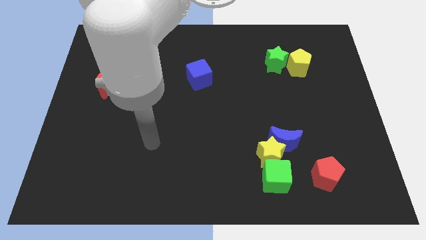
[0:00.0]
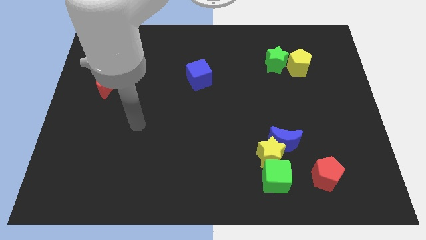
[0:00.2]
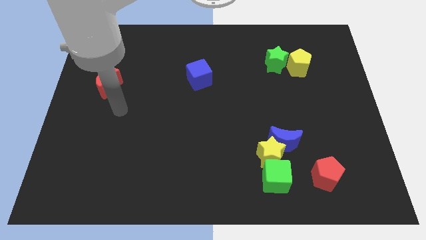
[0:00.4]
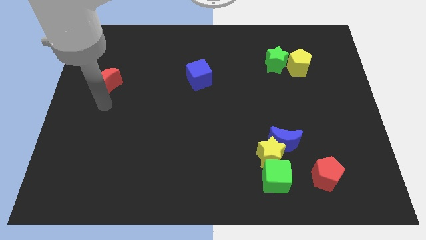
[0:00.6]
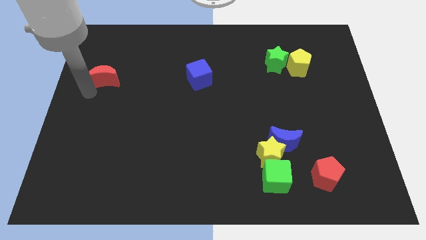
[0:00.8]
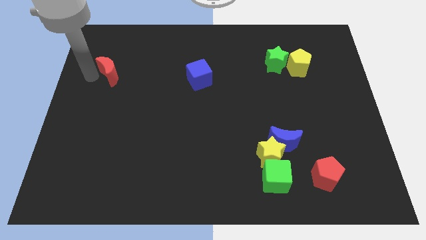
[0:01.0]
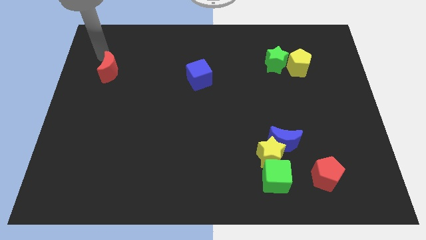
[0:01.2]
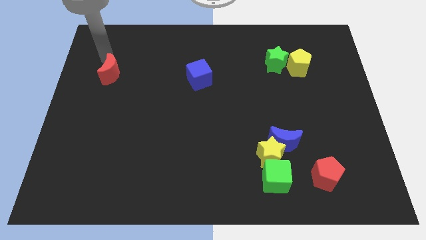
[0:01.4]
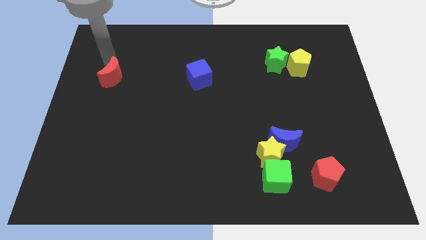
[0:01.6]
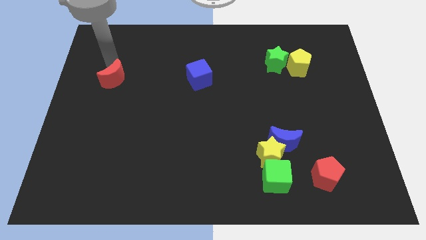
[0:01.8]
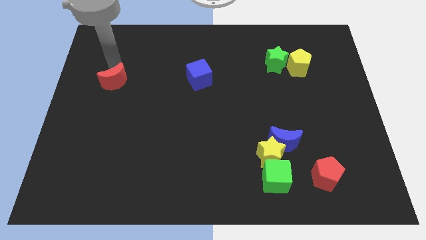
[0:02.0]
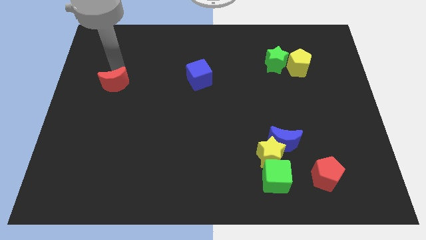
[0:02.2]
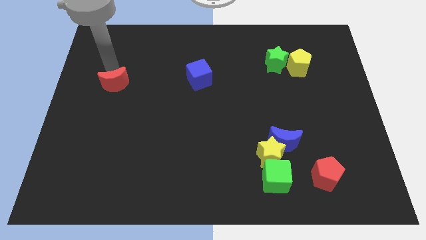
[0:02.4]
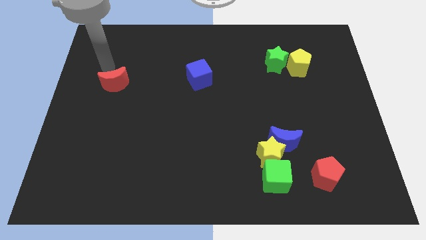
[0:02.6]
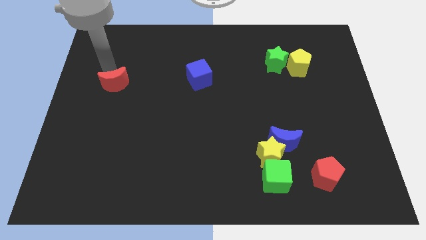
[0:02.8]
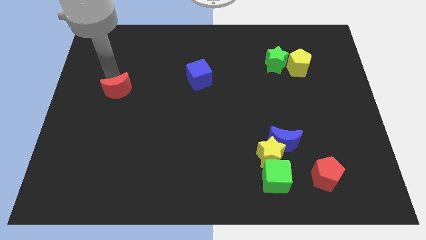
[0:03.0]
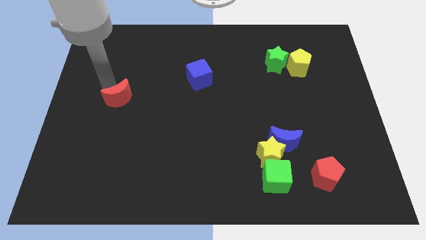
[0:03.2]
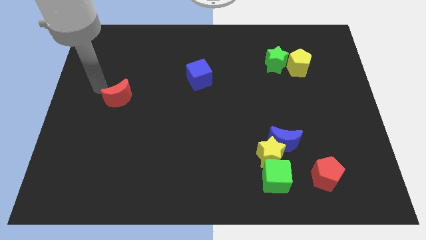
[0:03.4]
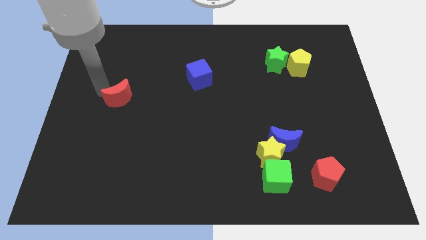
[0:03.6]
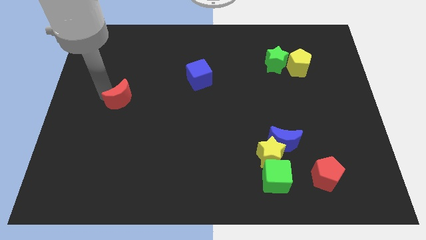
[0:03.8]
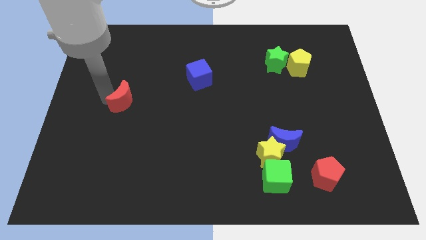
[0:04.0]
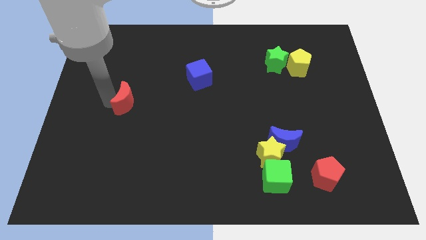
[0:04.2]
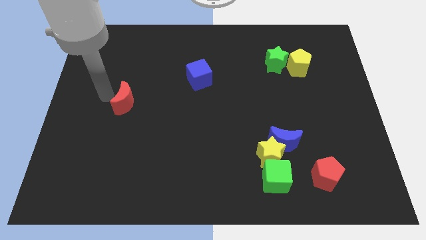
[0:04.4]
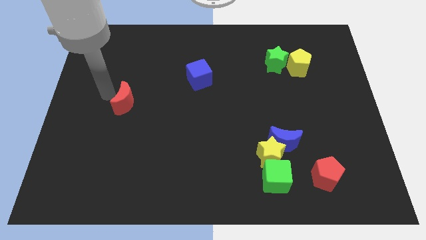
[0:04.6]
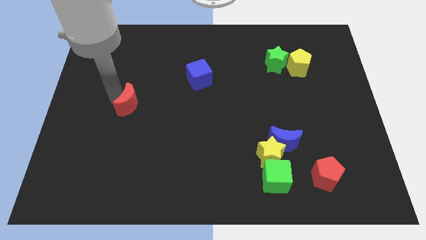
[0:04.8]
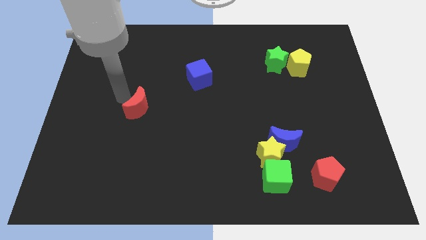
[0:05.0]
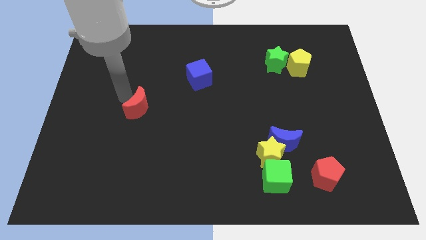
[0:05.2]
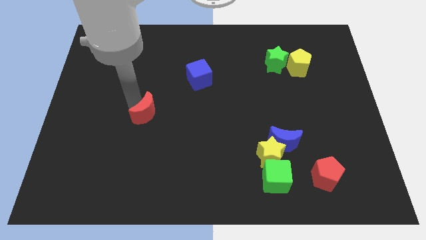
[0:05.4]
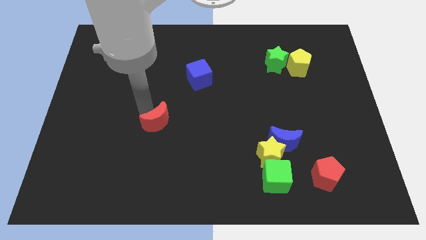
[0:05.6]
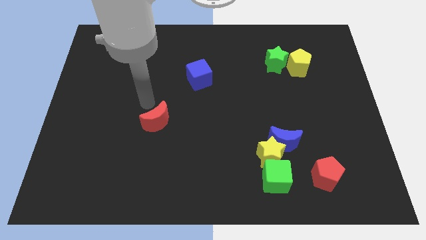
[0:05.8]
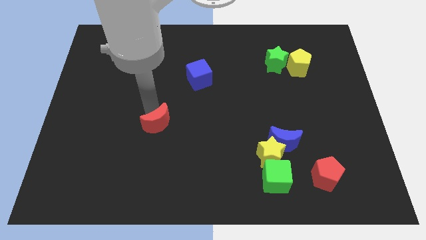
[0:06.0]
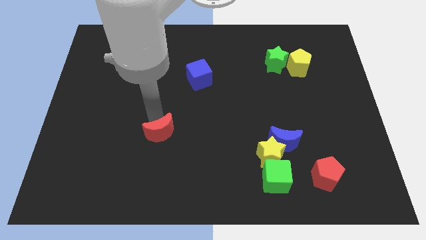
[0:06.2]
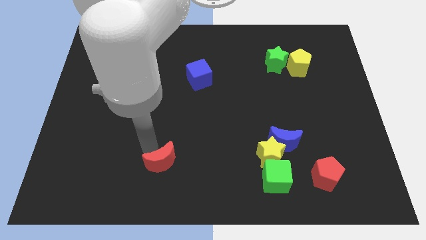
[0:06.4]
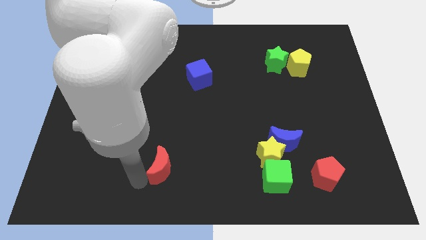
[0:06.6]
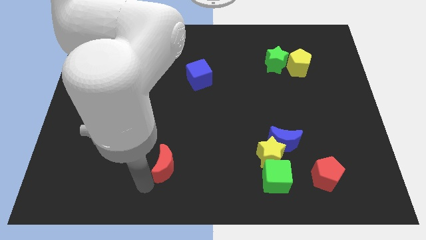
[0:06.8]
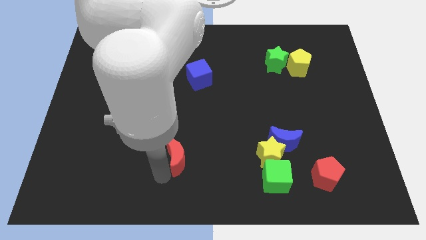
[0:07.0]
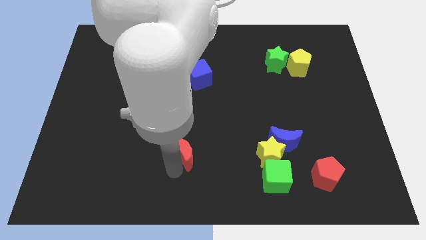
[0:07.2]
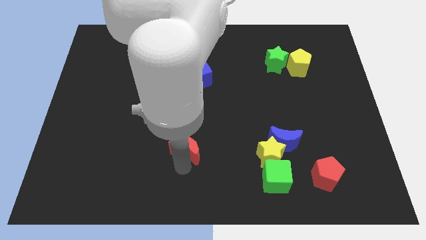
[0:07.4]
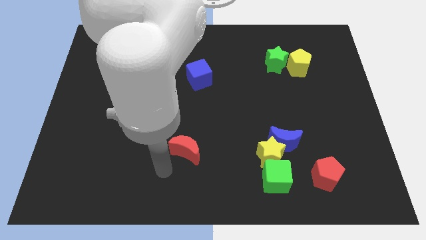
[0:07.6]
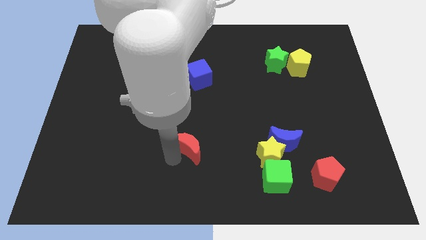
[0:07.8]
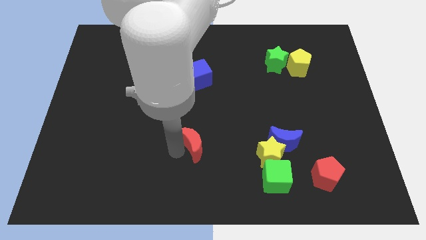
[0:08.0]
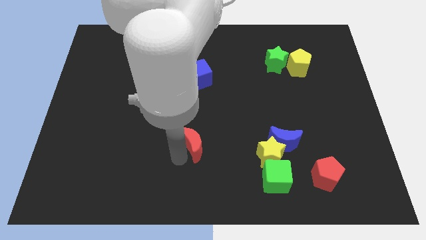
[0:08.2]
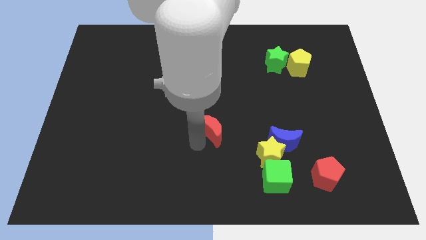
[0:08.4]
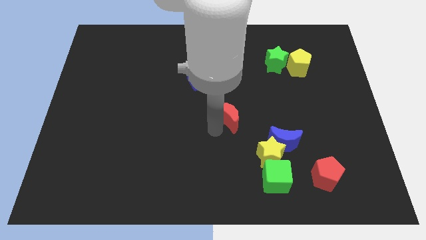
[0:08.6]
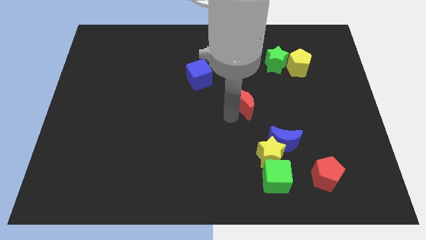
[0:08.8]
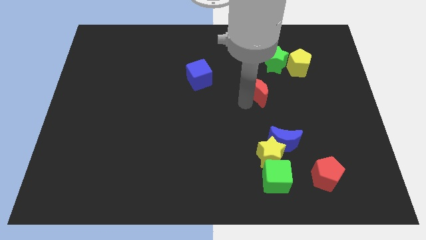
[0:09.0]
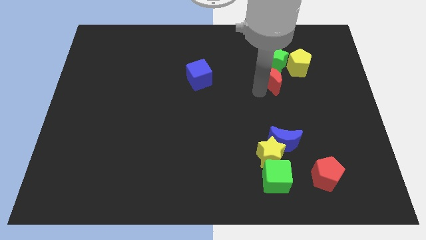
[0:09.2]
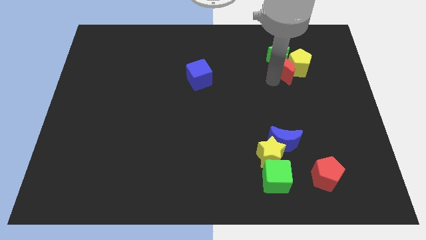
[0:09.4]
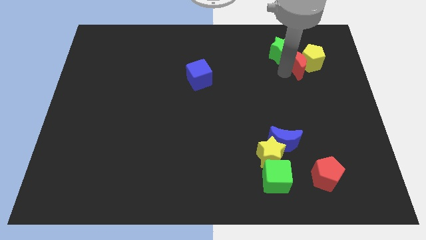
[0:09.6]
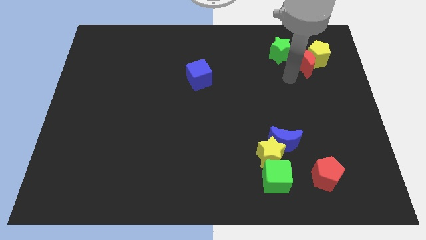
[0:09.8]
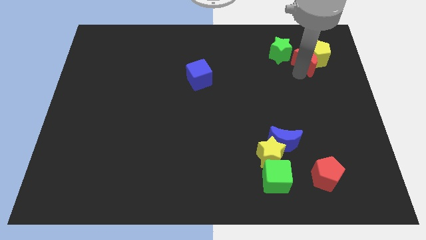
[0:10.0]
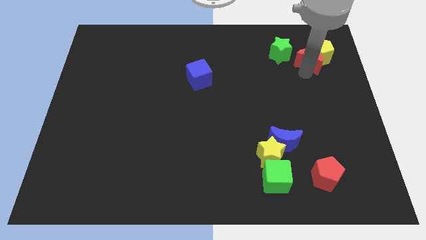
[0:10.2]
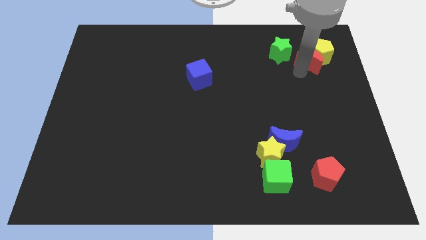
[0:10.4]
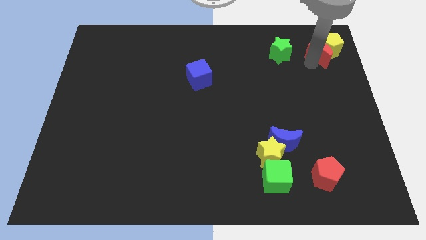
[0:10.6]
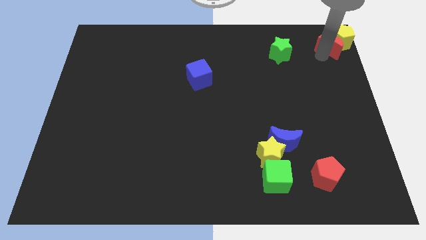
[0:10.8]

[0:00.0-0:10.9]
push the red moon to the top right corner

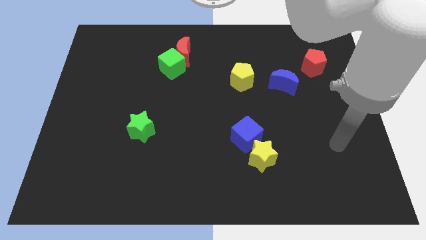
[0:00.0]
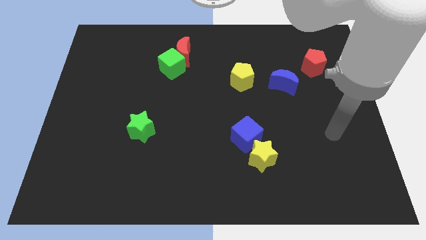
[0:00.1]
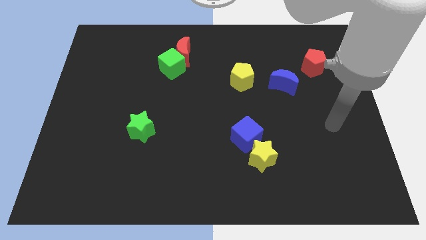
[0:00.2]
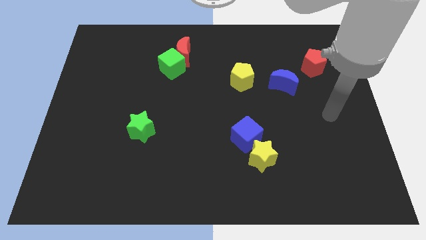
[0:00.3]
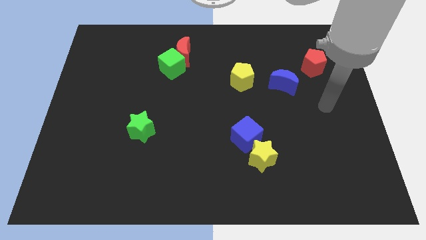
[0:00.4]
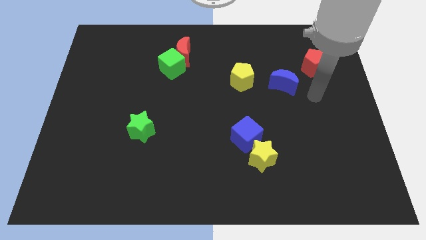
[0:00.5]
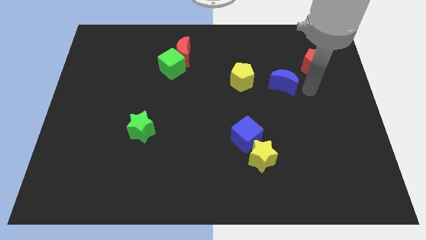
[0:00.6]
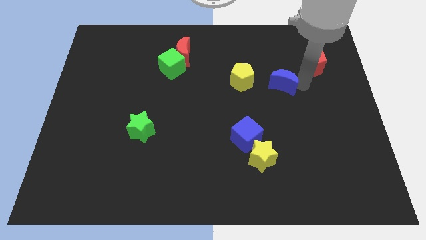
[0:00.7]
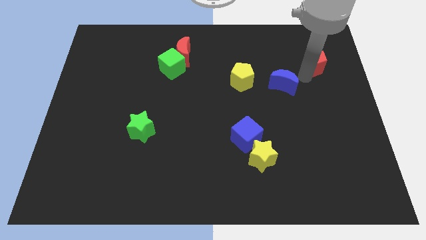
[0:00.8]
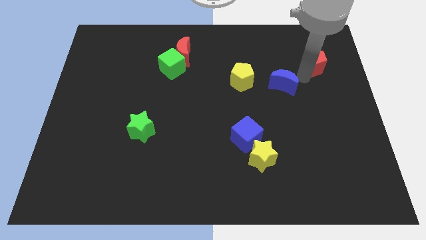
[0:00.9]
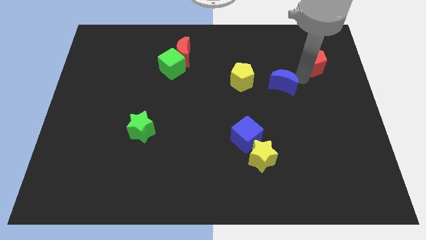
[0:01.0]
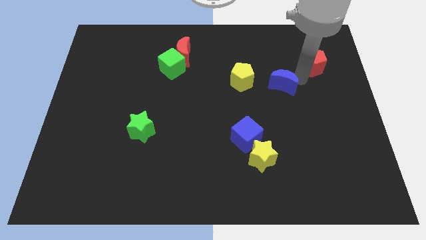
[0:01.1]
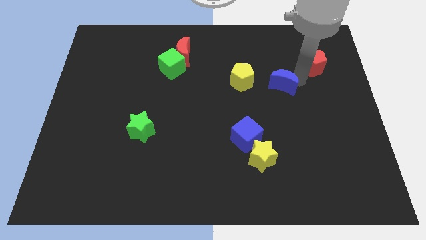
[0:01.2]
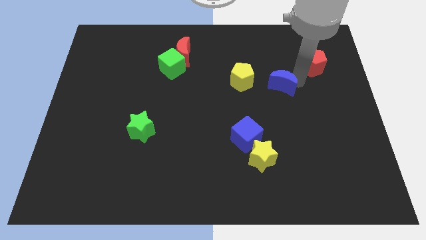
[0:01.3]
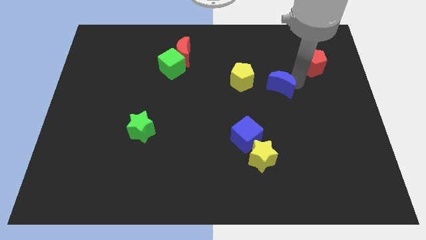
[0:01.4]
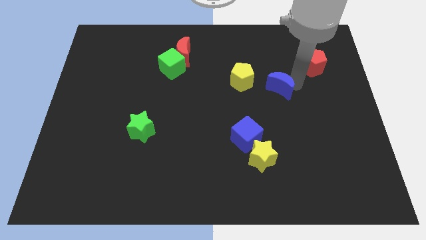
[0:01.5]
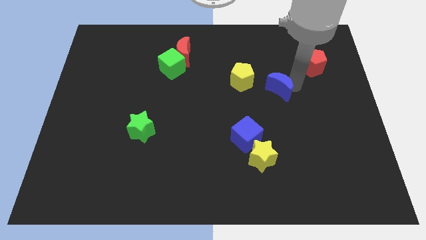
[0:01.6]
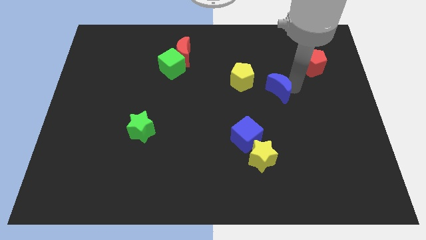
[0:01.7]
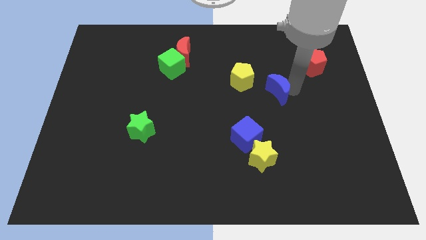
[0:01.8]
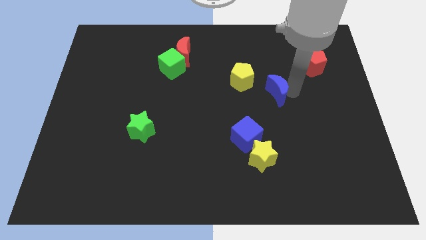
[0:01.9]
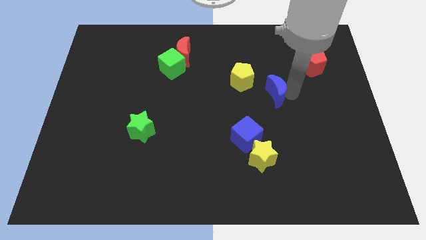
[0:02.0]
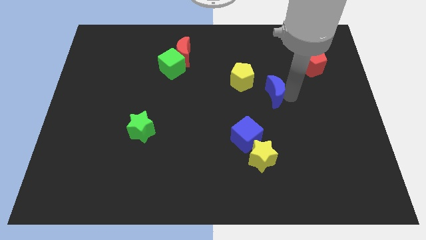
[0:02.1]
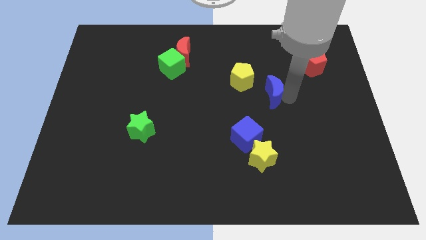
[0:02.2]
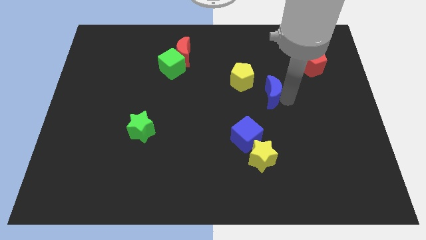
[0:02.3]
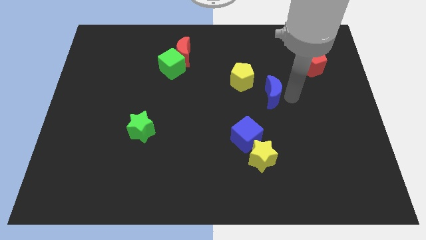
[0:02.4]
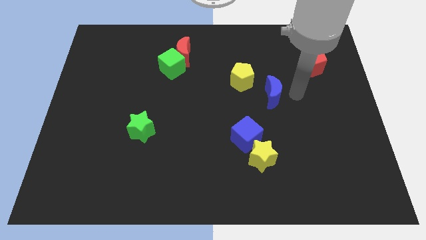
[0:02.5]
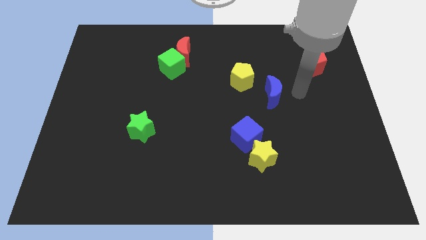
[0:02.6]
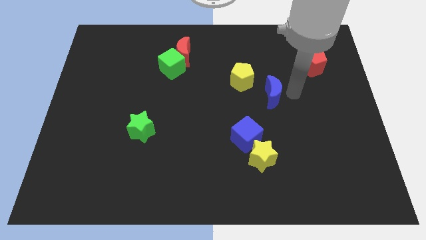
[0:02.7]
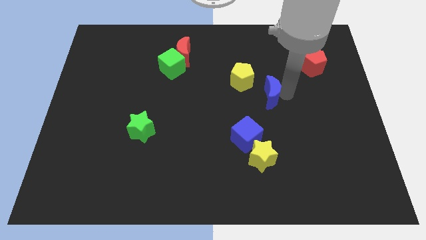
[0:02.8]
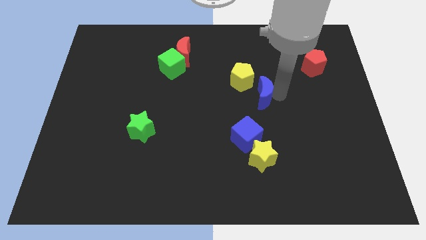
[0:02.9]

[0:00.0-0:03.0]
slide the blue moon to the center of the board
